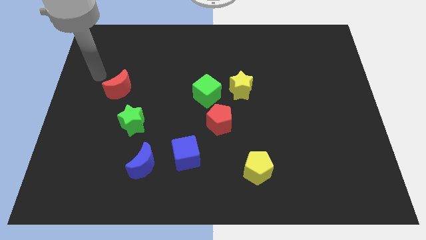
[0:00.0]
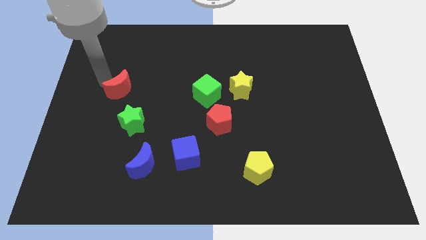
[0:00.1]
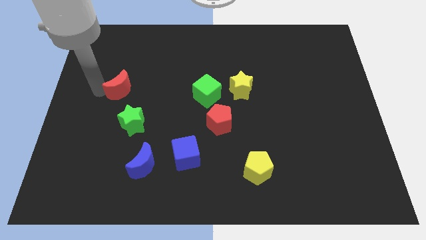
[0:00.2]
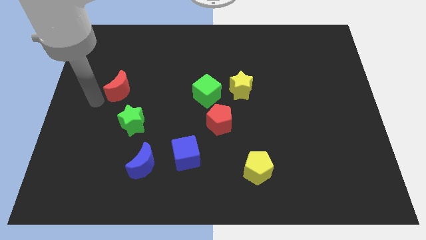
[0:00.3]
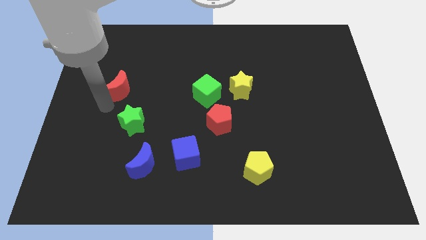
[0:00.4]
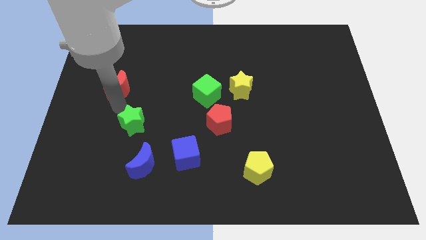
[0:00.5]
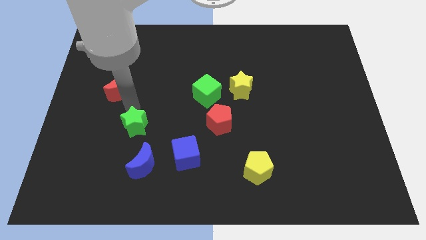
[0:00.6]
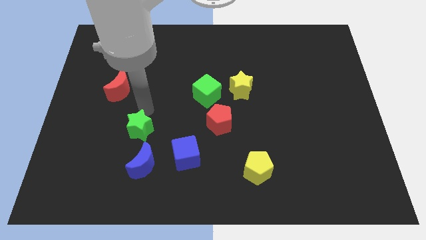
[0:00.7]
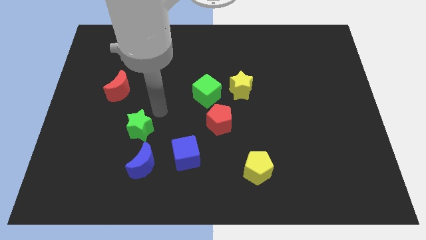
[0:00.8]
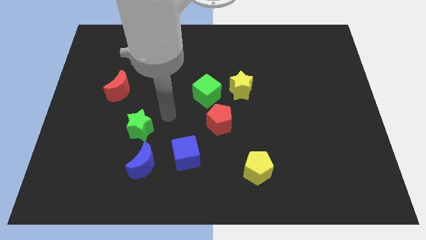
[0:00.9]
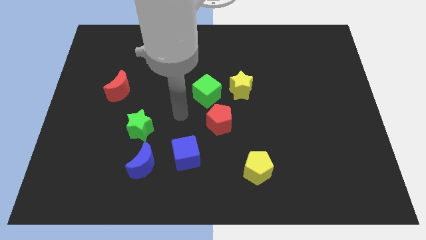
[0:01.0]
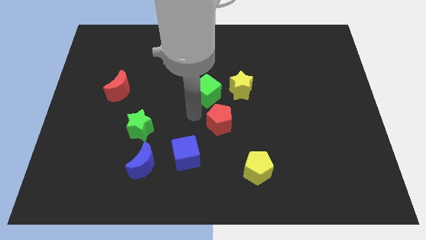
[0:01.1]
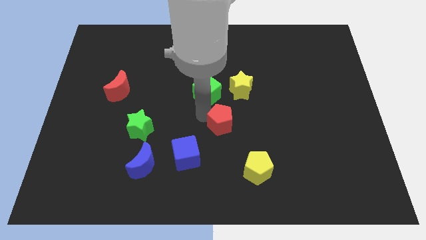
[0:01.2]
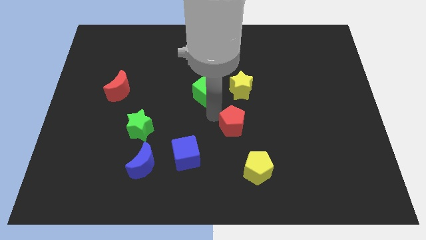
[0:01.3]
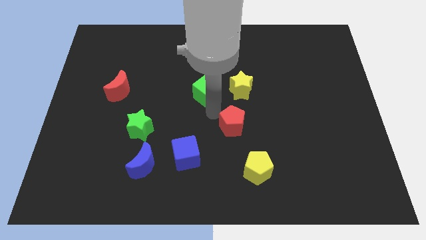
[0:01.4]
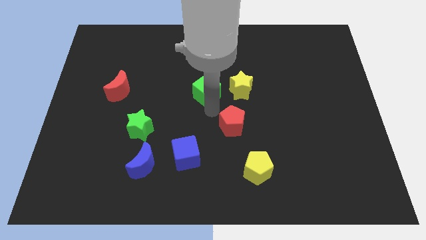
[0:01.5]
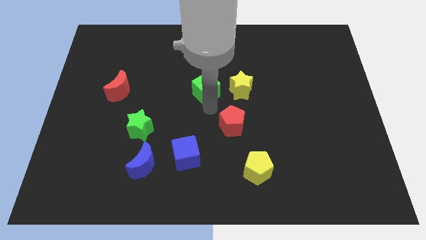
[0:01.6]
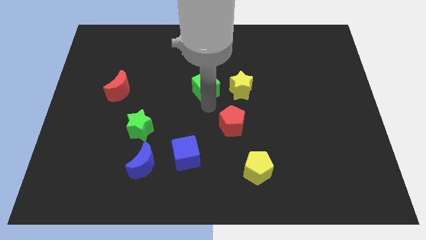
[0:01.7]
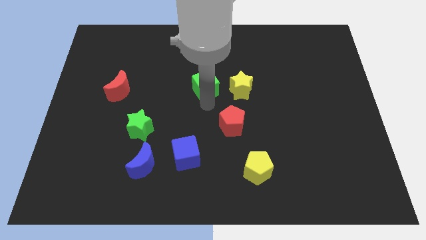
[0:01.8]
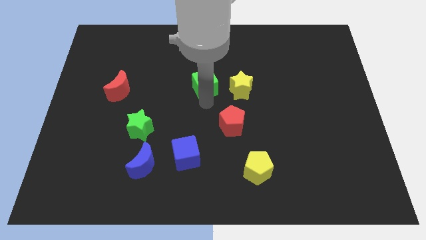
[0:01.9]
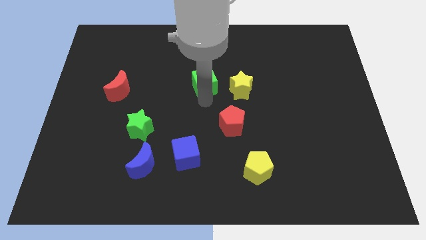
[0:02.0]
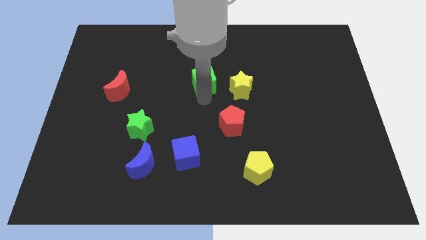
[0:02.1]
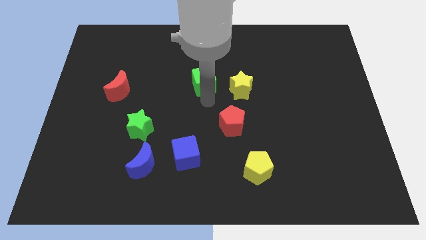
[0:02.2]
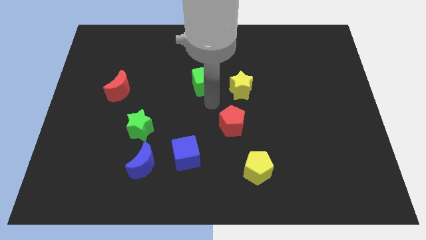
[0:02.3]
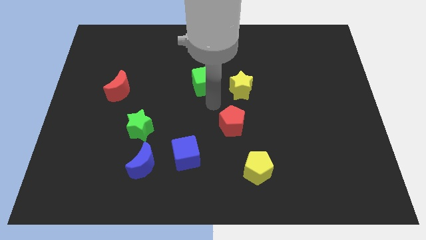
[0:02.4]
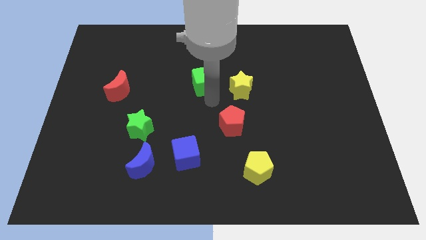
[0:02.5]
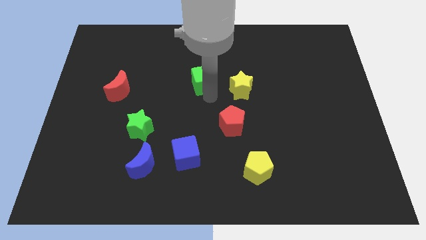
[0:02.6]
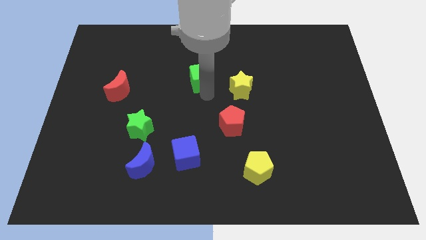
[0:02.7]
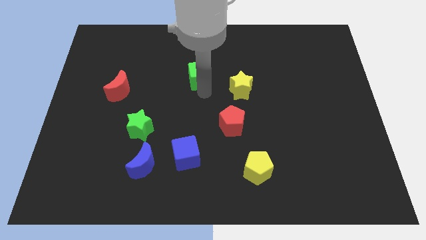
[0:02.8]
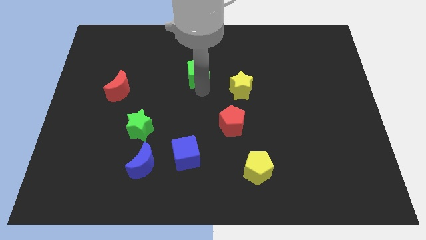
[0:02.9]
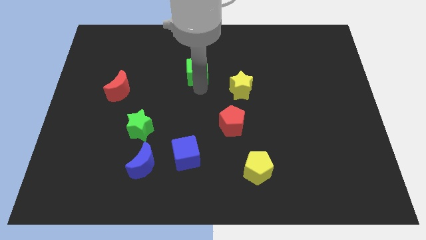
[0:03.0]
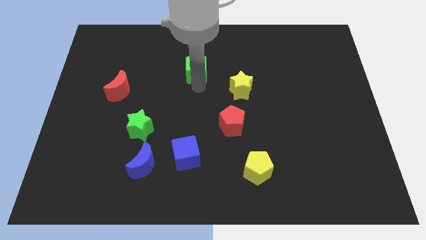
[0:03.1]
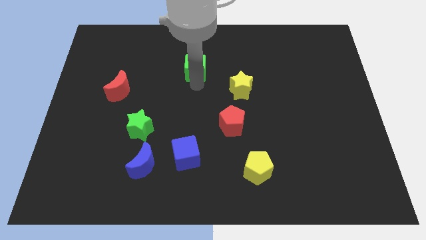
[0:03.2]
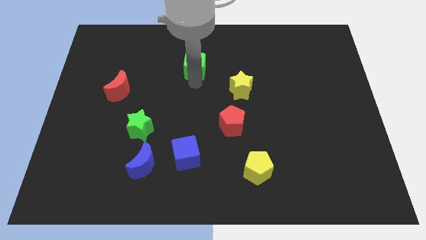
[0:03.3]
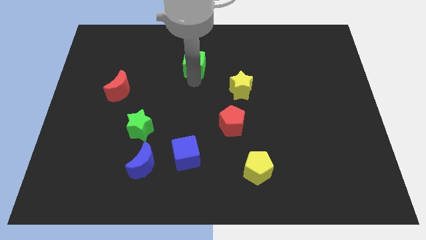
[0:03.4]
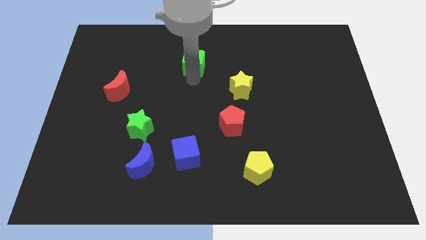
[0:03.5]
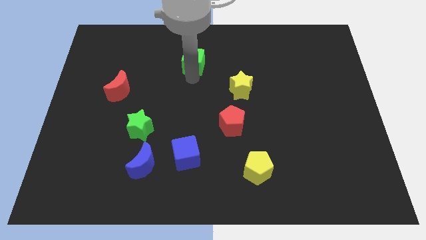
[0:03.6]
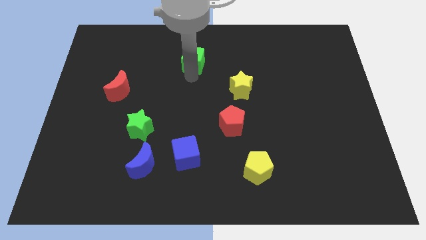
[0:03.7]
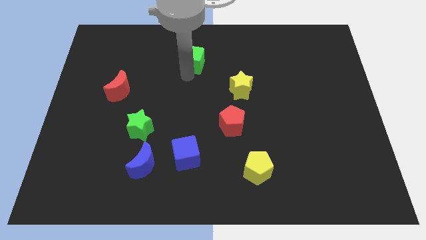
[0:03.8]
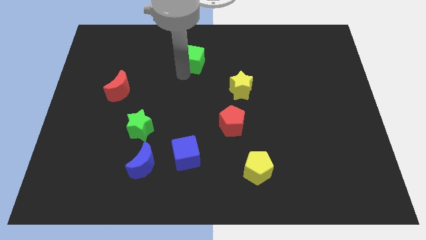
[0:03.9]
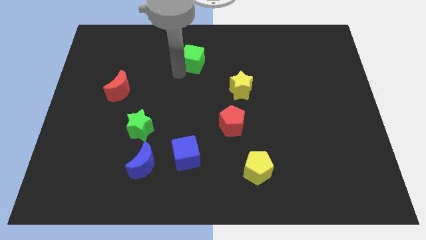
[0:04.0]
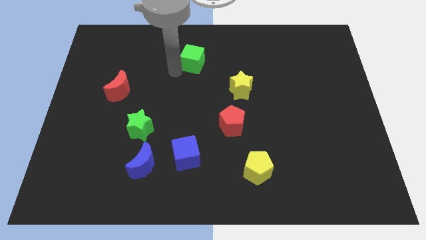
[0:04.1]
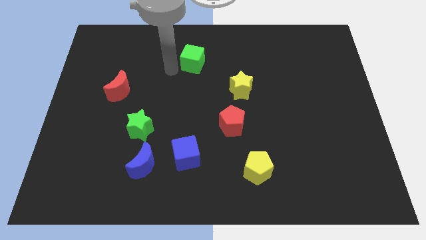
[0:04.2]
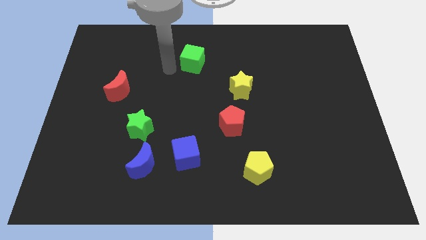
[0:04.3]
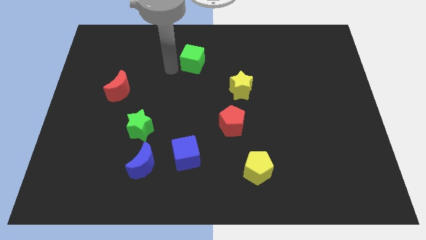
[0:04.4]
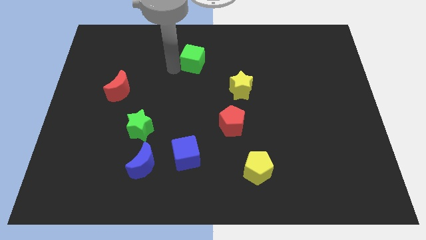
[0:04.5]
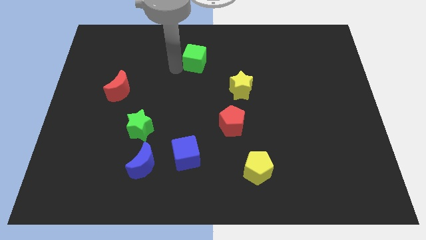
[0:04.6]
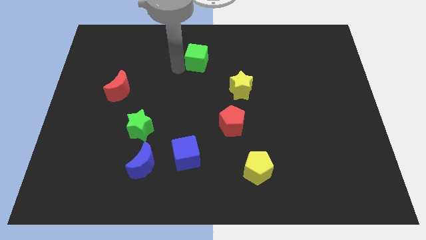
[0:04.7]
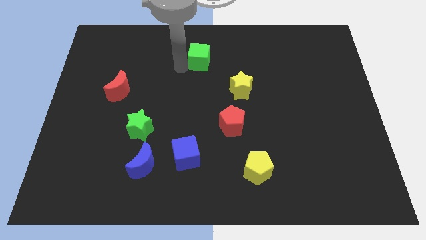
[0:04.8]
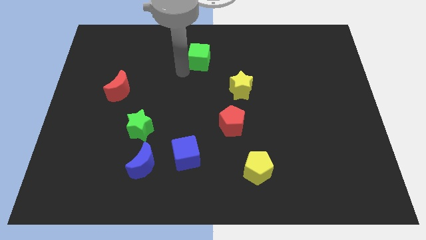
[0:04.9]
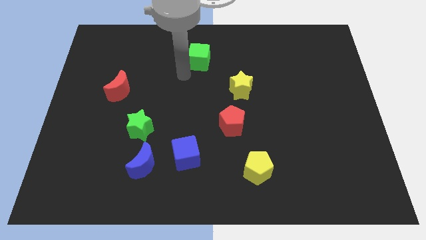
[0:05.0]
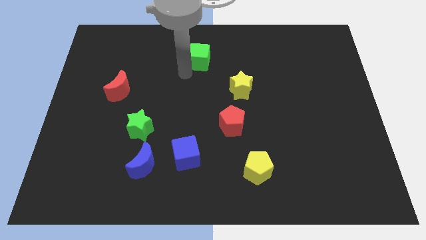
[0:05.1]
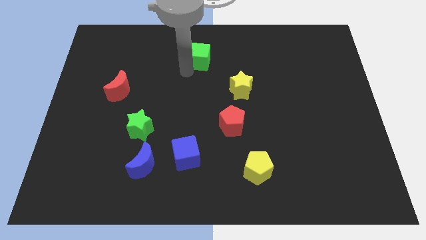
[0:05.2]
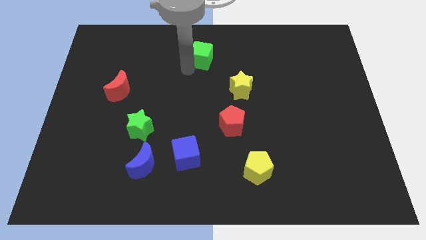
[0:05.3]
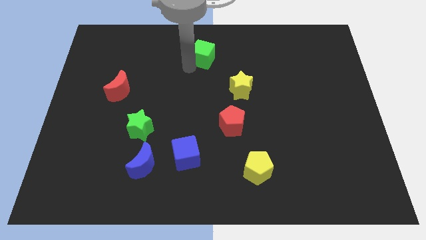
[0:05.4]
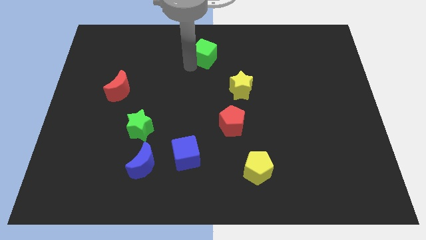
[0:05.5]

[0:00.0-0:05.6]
push the green cube to the towards your base
